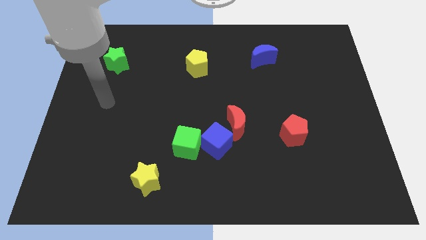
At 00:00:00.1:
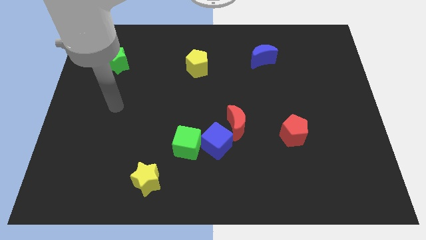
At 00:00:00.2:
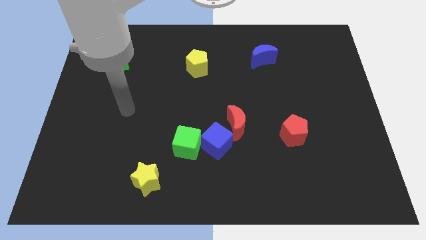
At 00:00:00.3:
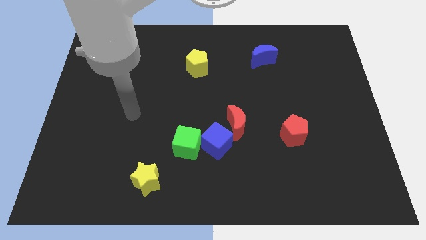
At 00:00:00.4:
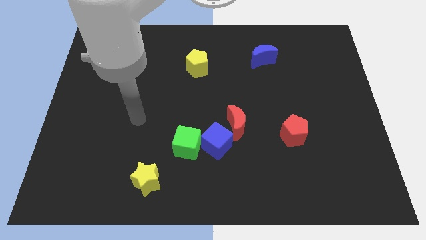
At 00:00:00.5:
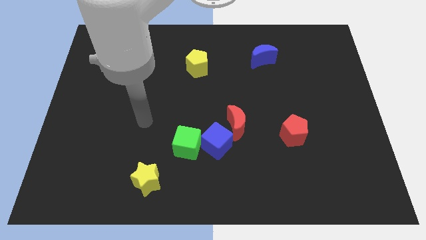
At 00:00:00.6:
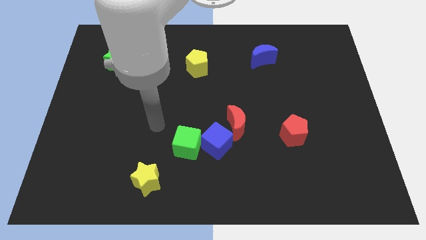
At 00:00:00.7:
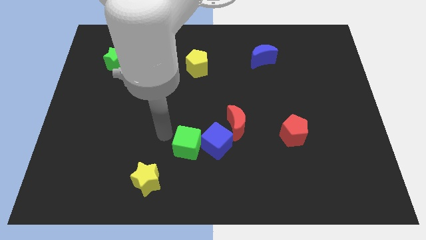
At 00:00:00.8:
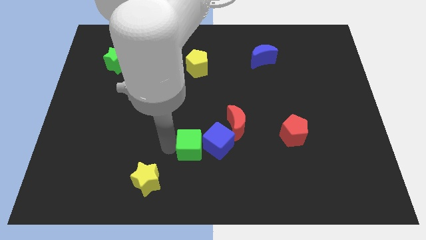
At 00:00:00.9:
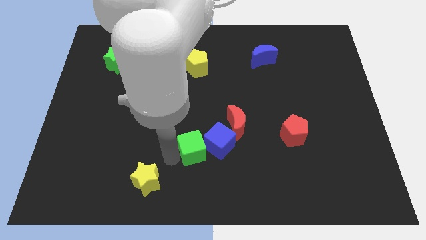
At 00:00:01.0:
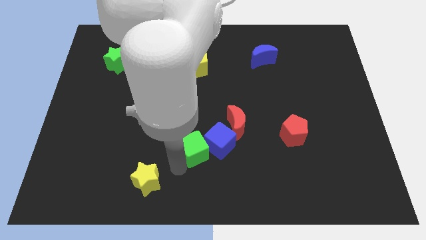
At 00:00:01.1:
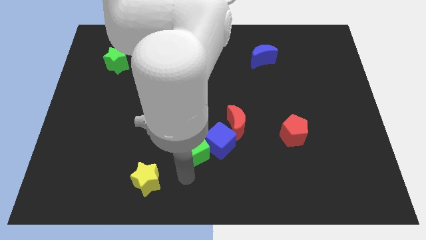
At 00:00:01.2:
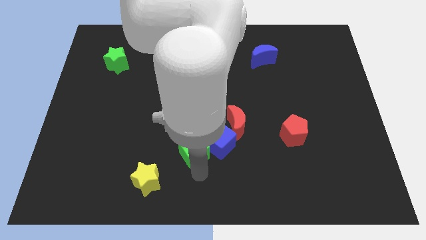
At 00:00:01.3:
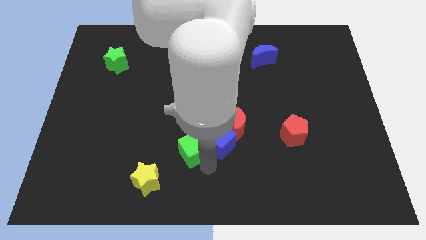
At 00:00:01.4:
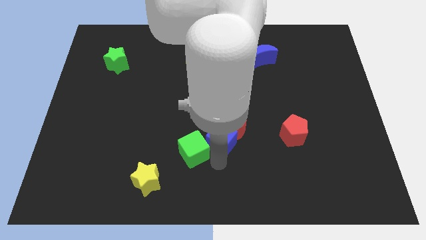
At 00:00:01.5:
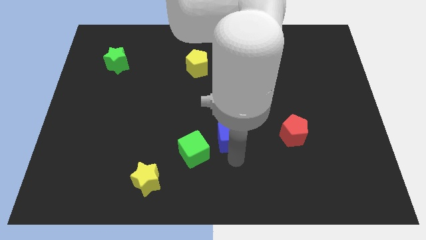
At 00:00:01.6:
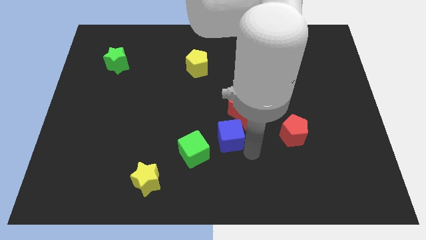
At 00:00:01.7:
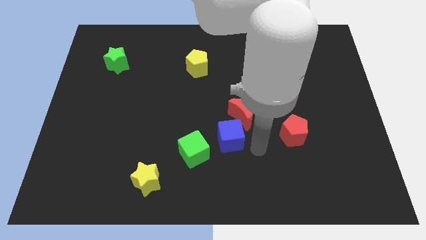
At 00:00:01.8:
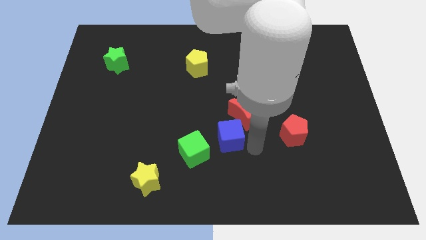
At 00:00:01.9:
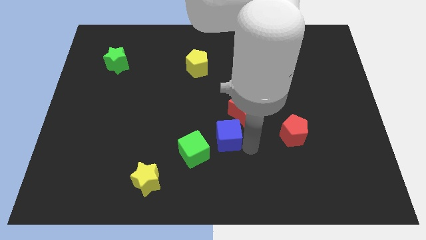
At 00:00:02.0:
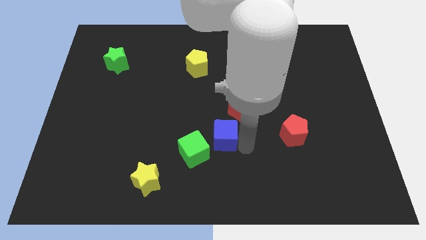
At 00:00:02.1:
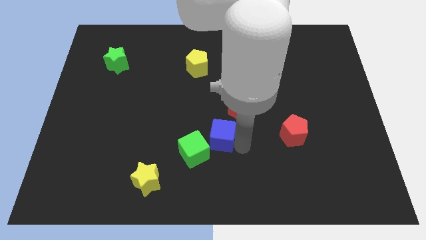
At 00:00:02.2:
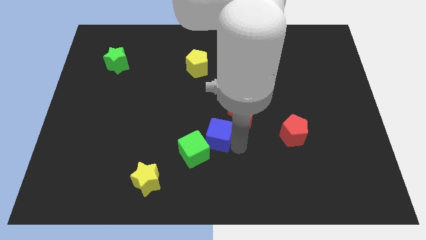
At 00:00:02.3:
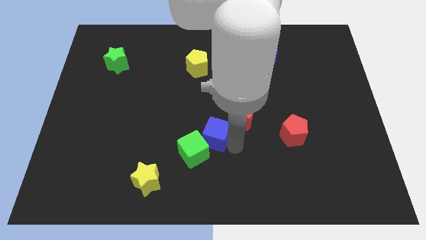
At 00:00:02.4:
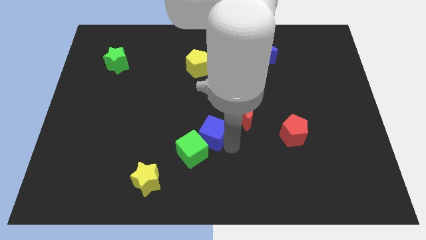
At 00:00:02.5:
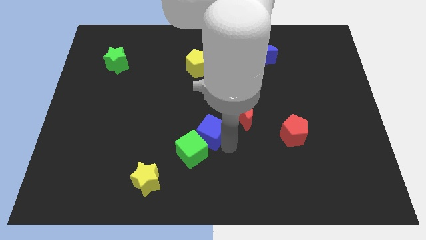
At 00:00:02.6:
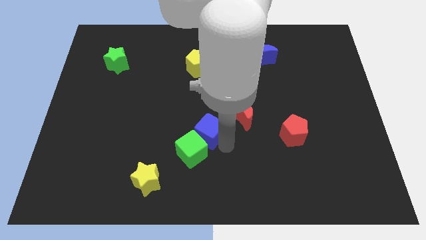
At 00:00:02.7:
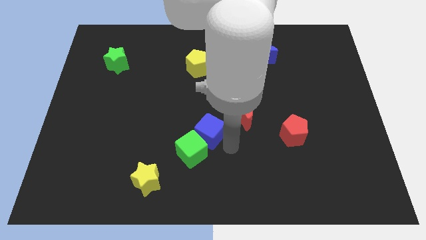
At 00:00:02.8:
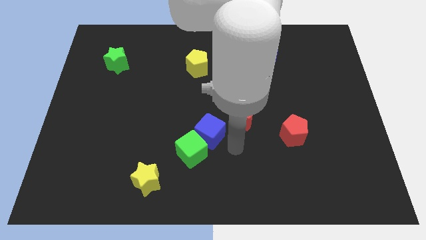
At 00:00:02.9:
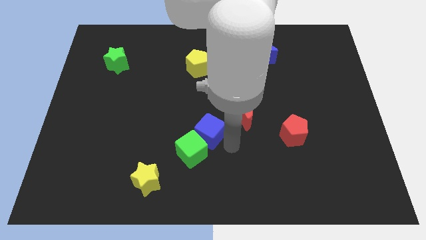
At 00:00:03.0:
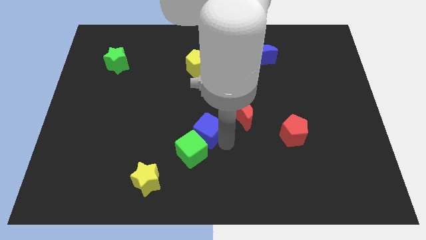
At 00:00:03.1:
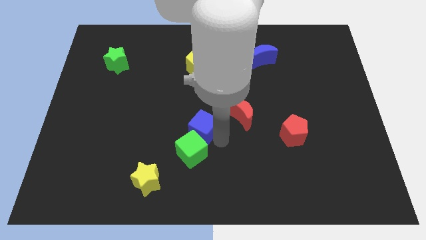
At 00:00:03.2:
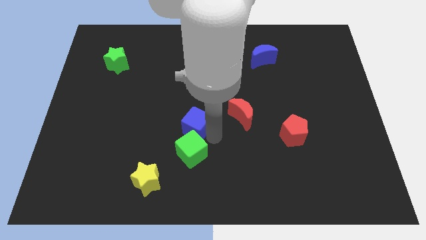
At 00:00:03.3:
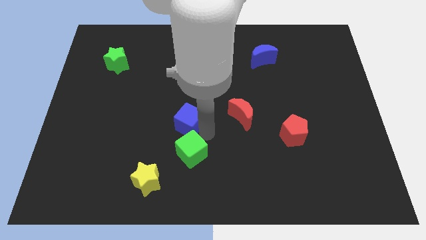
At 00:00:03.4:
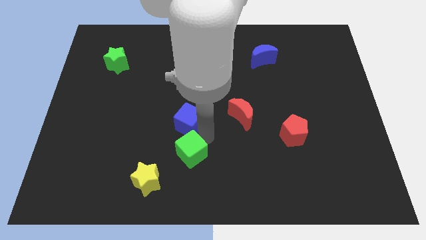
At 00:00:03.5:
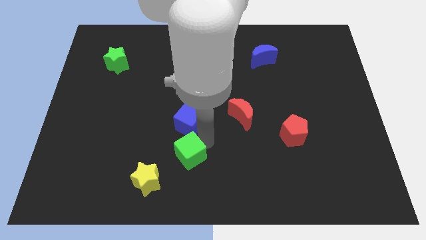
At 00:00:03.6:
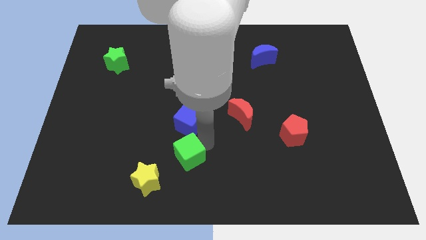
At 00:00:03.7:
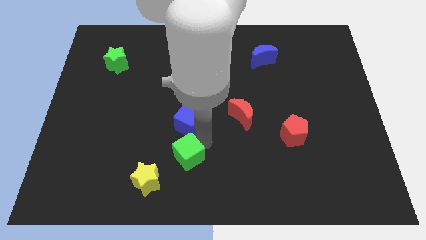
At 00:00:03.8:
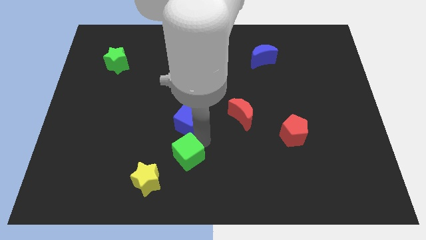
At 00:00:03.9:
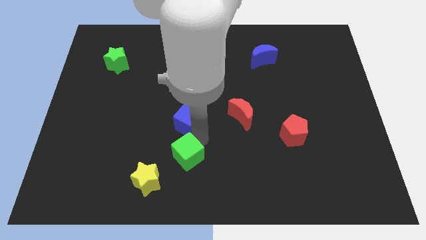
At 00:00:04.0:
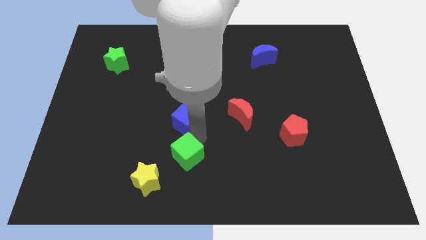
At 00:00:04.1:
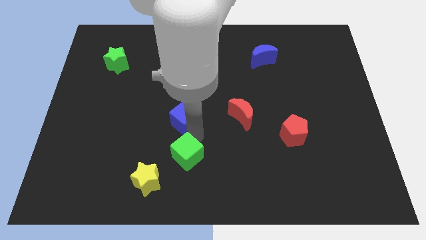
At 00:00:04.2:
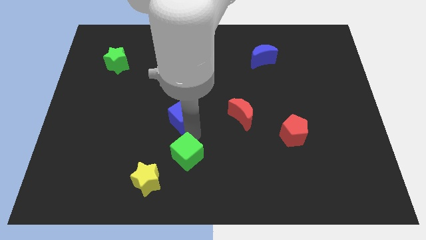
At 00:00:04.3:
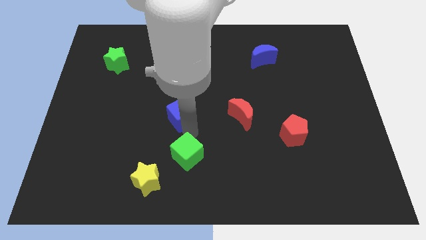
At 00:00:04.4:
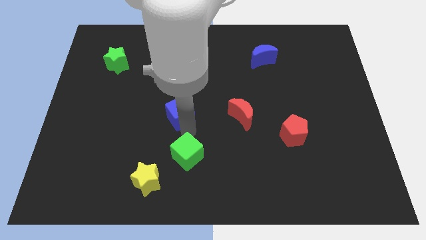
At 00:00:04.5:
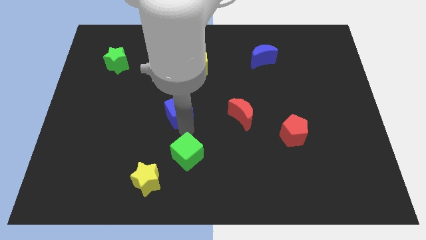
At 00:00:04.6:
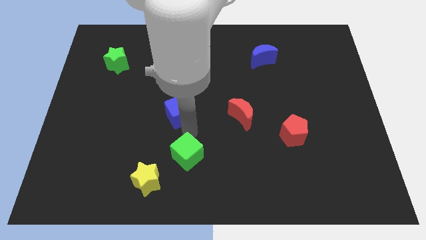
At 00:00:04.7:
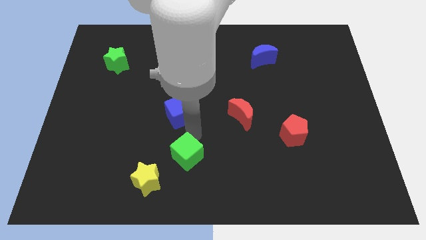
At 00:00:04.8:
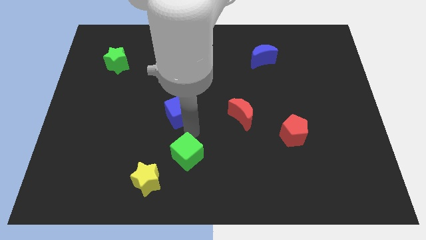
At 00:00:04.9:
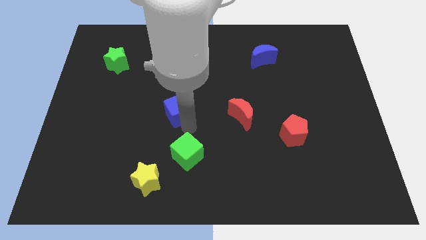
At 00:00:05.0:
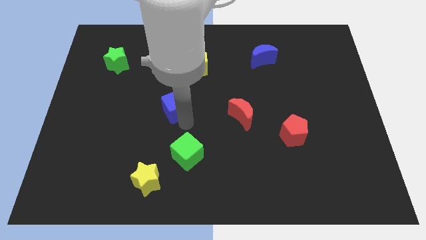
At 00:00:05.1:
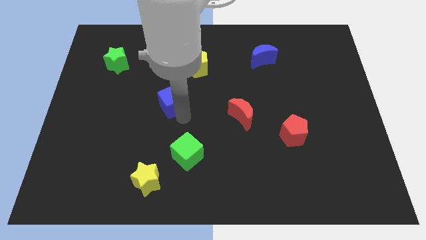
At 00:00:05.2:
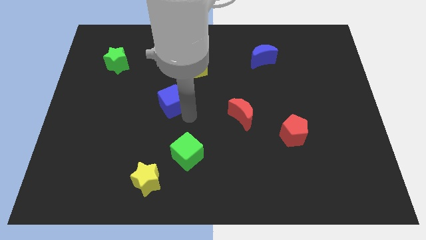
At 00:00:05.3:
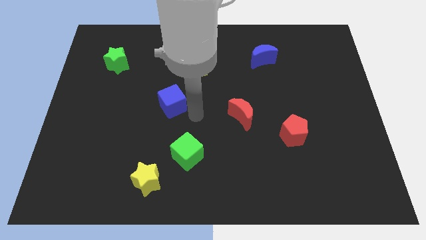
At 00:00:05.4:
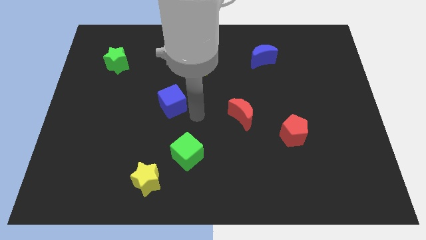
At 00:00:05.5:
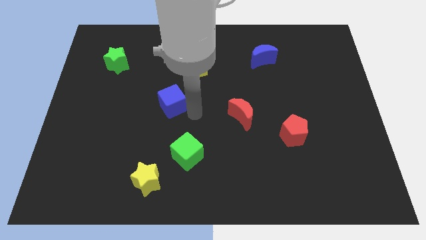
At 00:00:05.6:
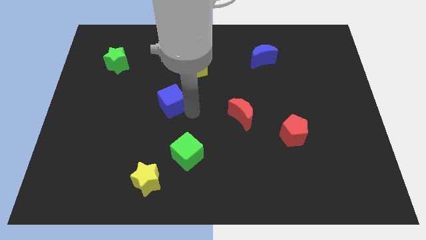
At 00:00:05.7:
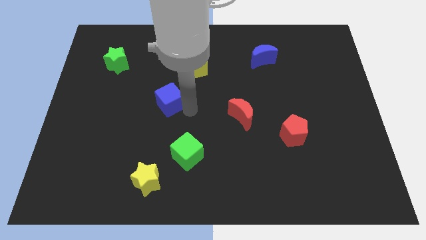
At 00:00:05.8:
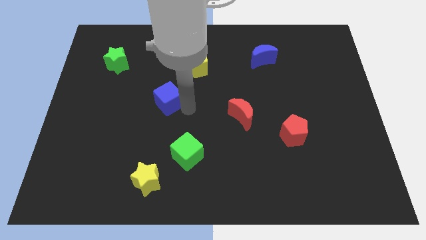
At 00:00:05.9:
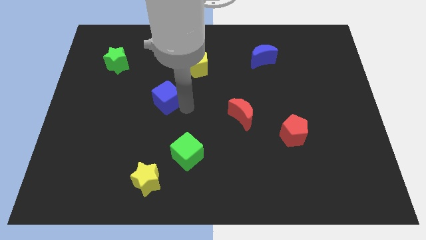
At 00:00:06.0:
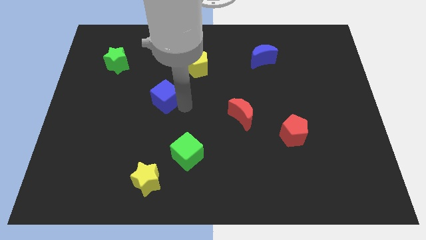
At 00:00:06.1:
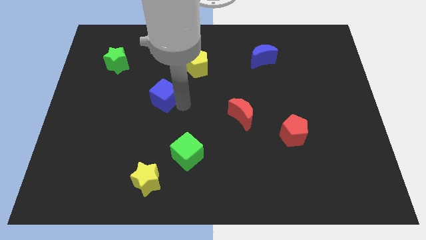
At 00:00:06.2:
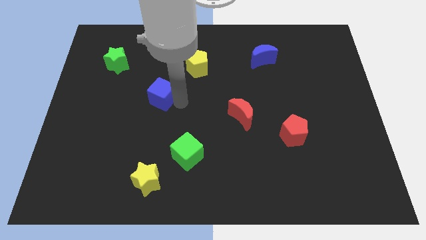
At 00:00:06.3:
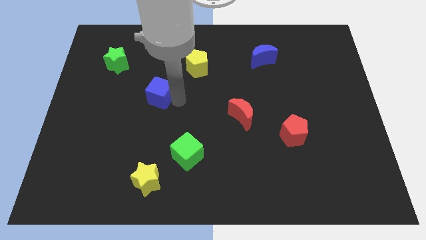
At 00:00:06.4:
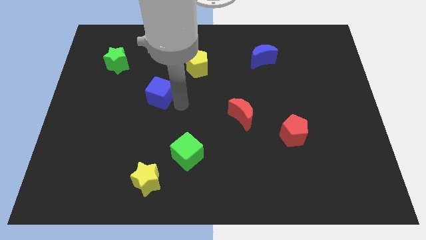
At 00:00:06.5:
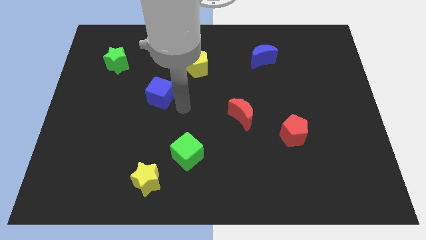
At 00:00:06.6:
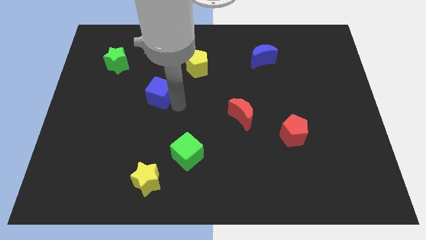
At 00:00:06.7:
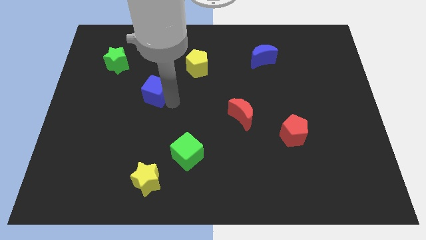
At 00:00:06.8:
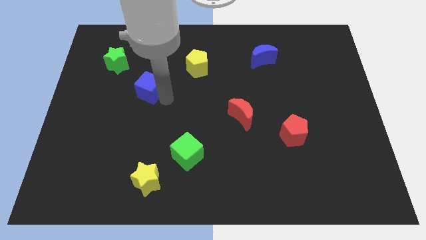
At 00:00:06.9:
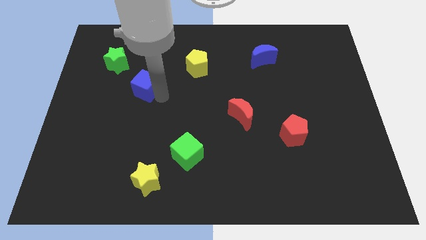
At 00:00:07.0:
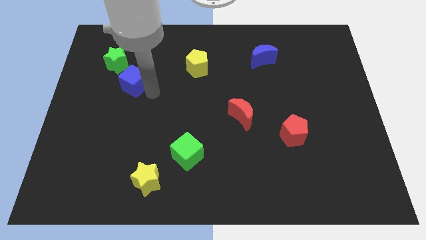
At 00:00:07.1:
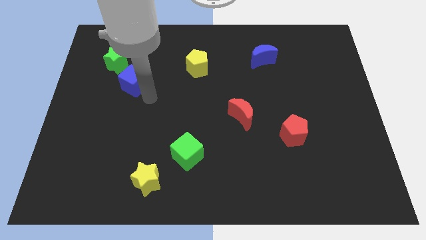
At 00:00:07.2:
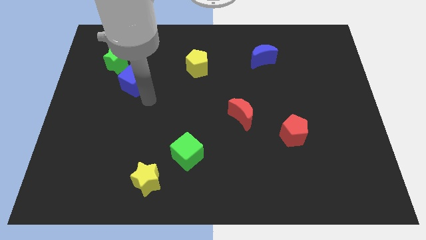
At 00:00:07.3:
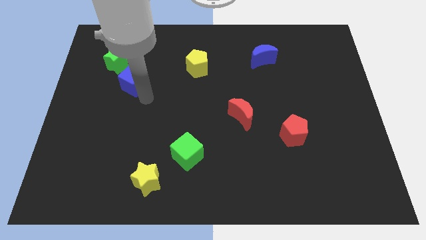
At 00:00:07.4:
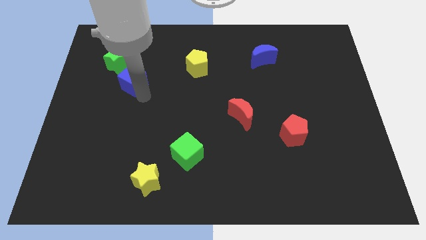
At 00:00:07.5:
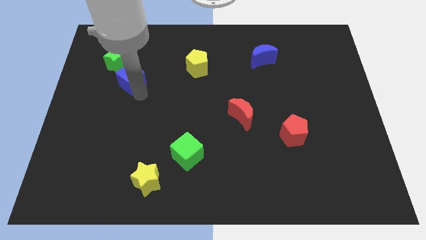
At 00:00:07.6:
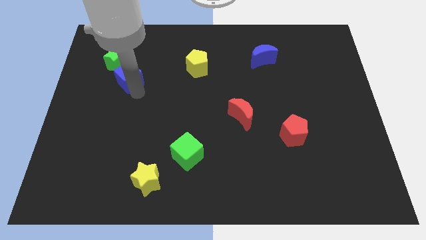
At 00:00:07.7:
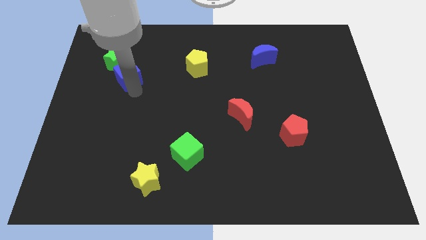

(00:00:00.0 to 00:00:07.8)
push the blue cube towards the green star
